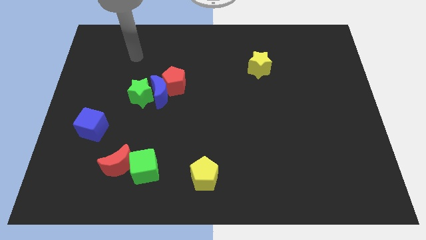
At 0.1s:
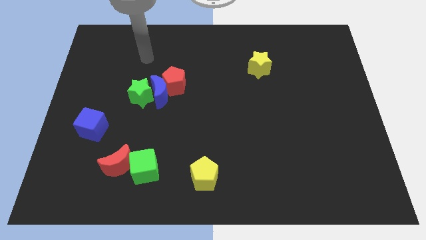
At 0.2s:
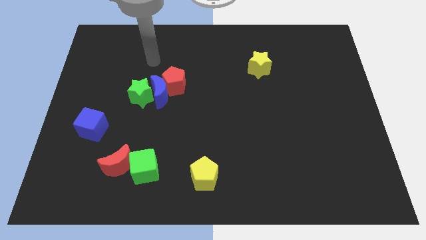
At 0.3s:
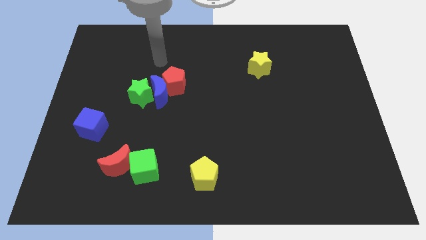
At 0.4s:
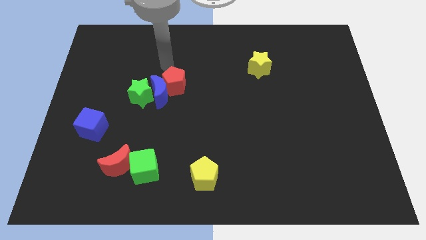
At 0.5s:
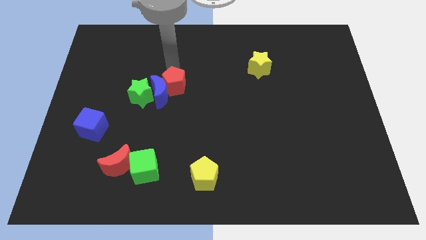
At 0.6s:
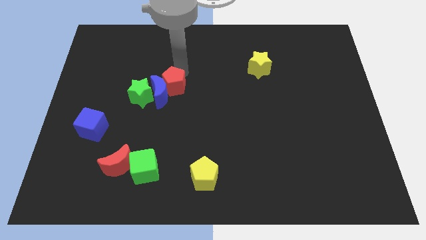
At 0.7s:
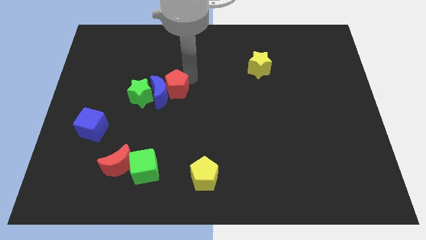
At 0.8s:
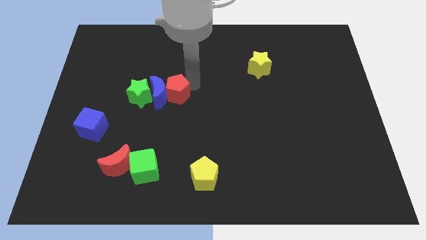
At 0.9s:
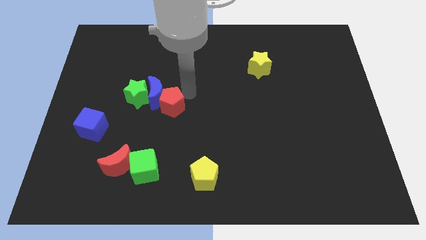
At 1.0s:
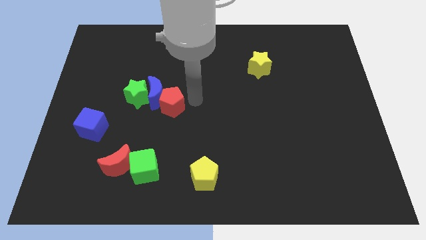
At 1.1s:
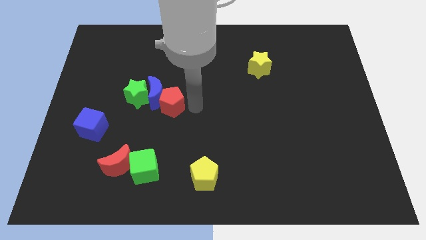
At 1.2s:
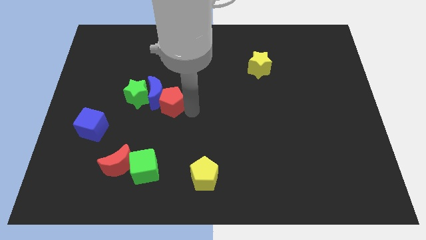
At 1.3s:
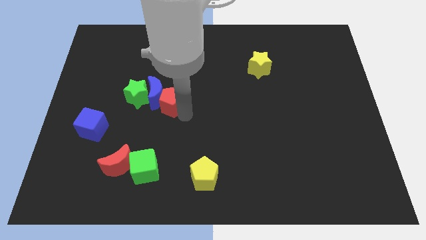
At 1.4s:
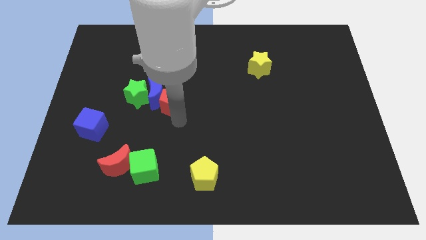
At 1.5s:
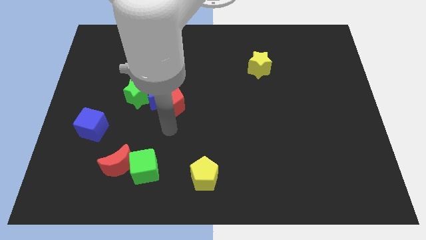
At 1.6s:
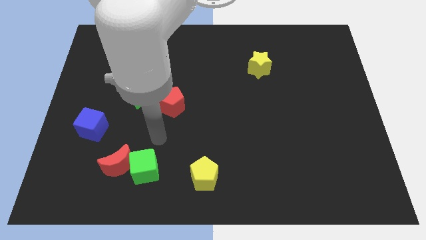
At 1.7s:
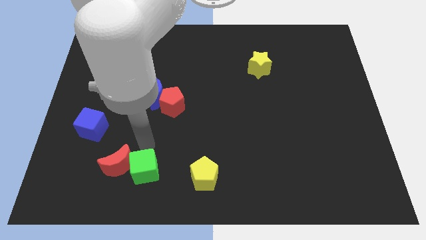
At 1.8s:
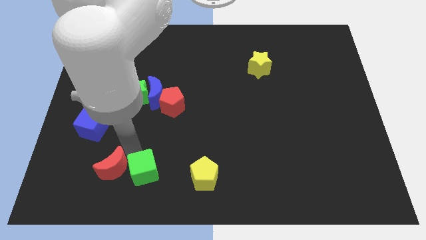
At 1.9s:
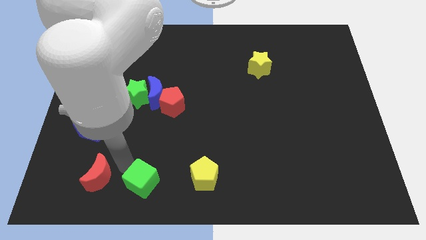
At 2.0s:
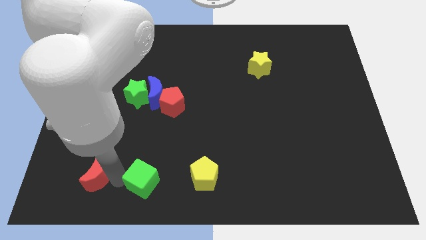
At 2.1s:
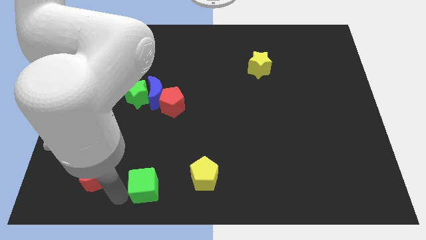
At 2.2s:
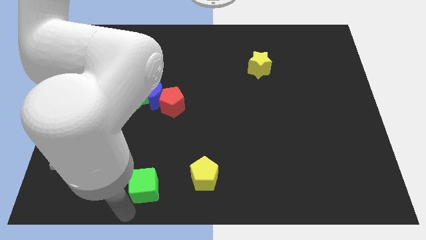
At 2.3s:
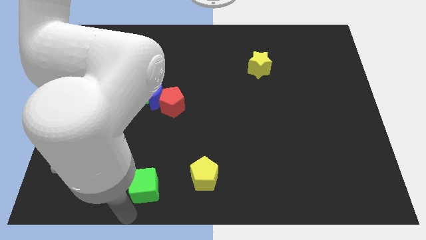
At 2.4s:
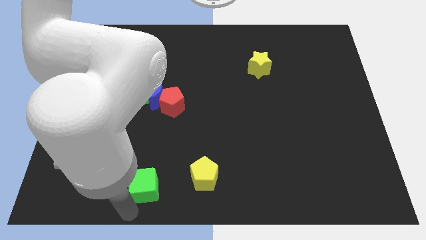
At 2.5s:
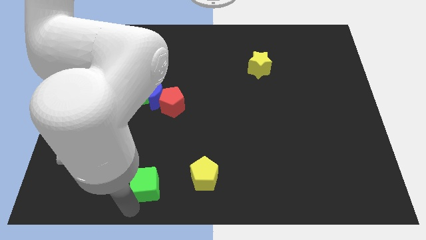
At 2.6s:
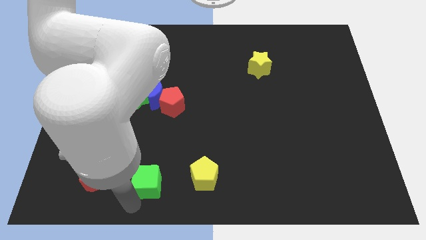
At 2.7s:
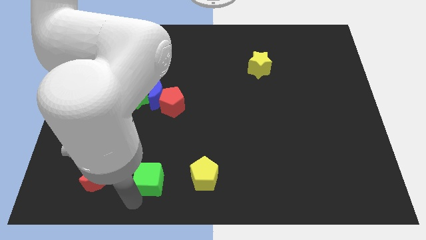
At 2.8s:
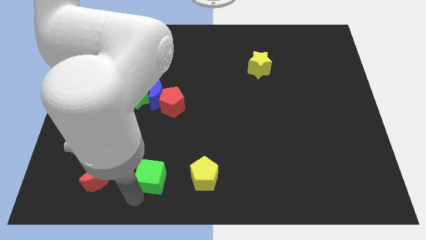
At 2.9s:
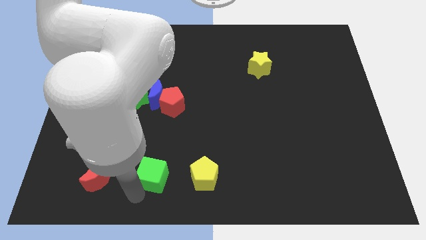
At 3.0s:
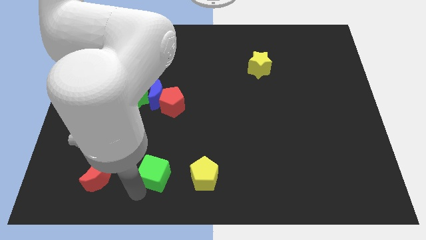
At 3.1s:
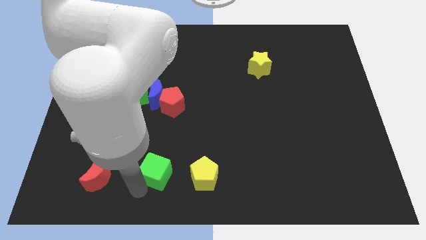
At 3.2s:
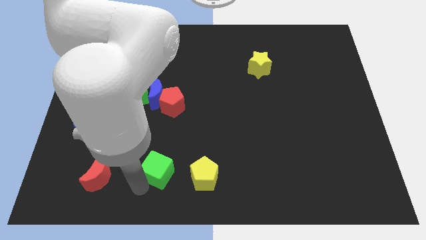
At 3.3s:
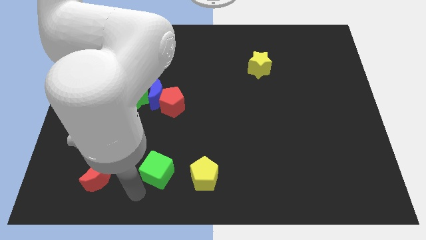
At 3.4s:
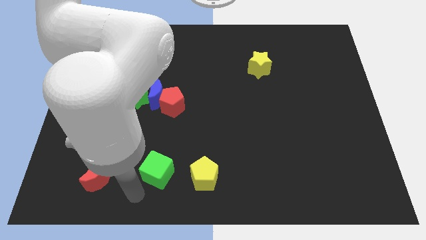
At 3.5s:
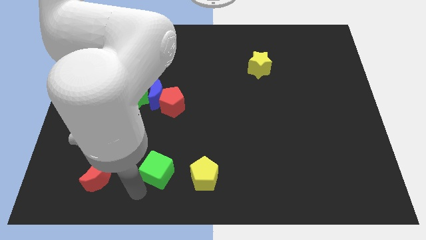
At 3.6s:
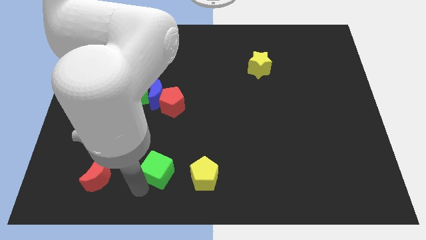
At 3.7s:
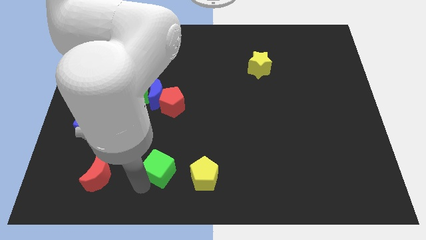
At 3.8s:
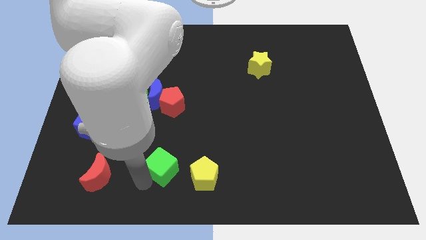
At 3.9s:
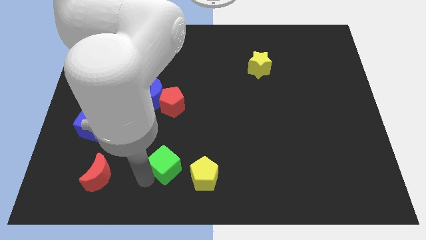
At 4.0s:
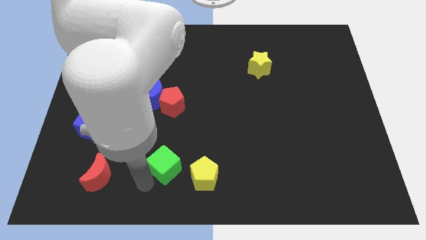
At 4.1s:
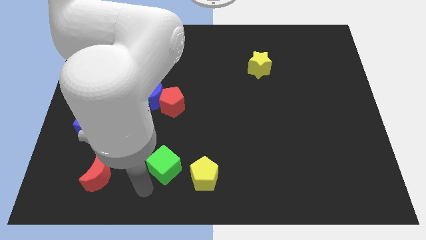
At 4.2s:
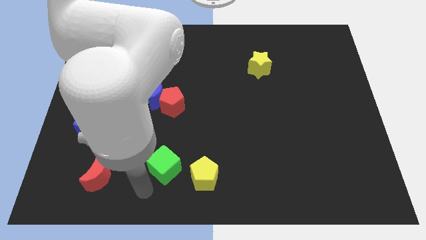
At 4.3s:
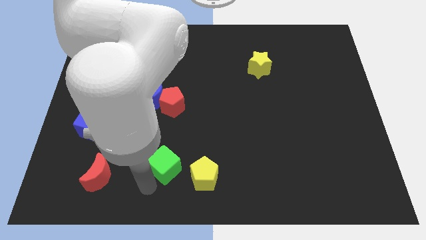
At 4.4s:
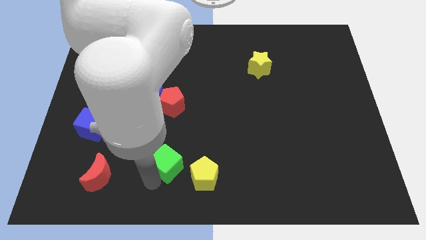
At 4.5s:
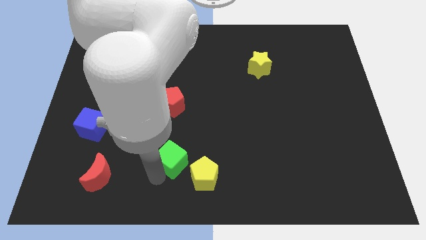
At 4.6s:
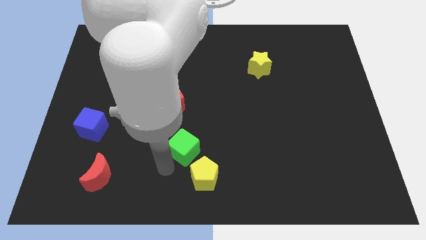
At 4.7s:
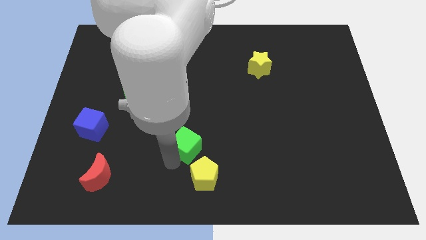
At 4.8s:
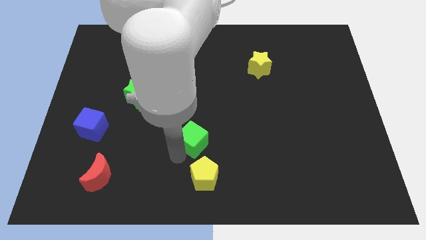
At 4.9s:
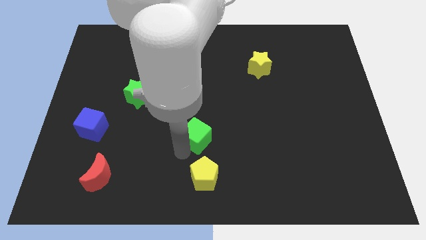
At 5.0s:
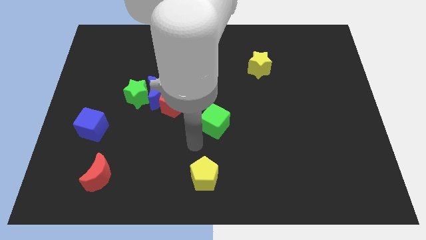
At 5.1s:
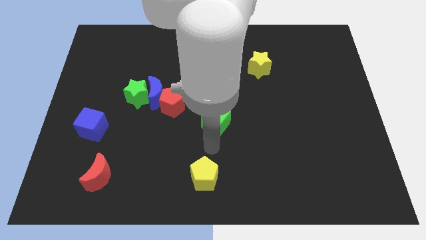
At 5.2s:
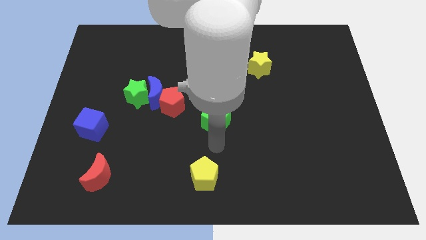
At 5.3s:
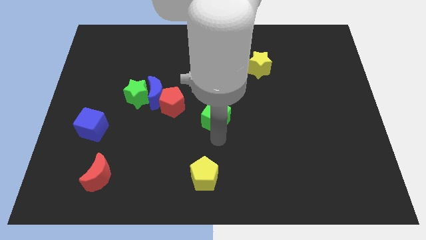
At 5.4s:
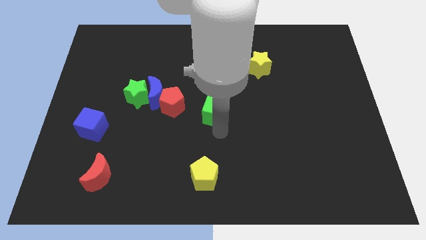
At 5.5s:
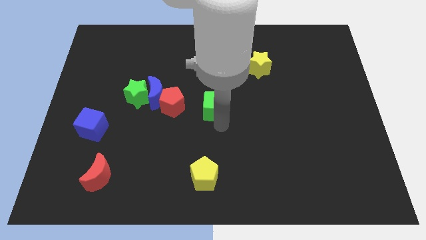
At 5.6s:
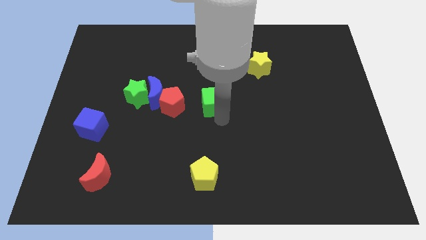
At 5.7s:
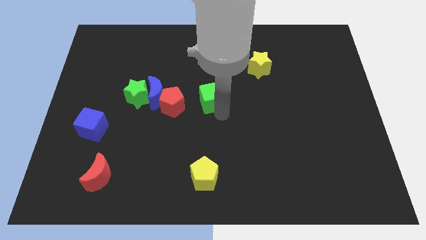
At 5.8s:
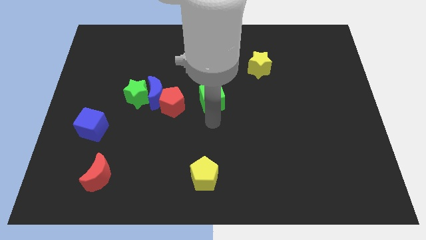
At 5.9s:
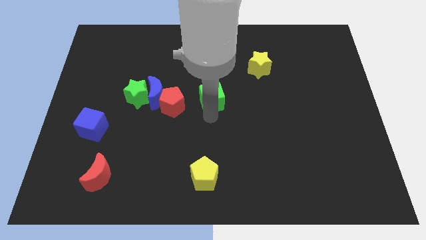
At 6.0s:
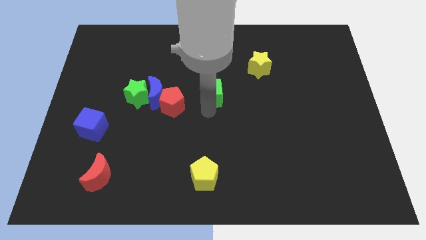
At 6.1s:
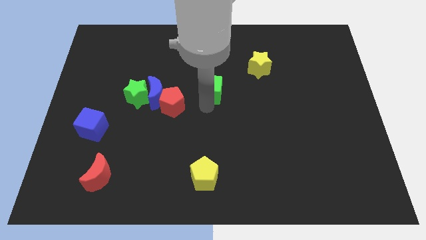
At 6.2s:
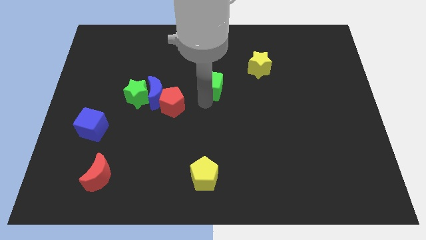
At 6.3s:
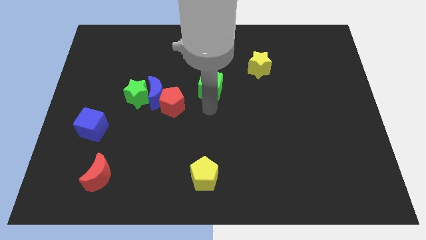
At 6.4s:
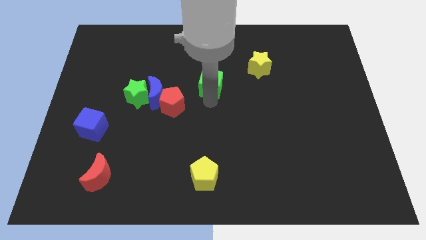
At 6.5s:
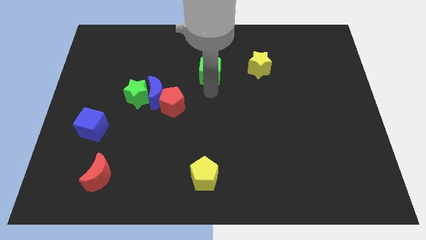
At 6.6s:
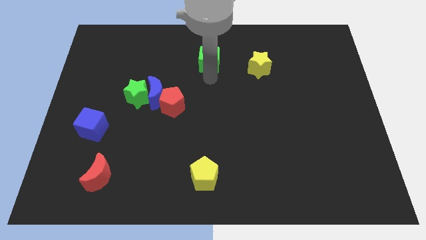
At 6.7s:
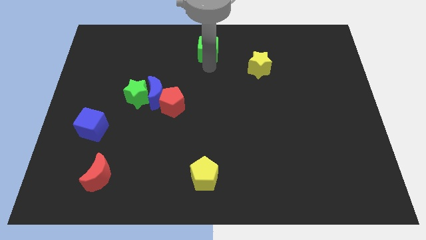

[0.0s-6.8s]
slide the green cube to the top side
